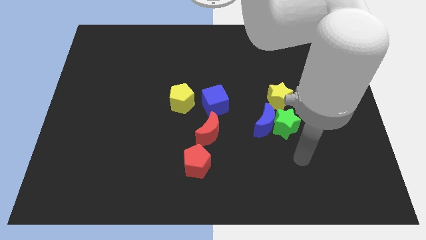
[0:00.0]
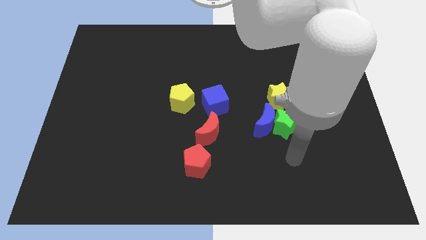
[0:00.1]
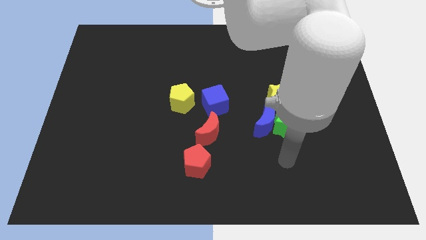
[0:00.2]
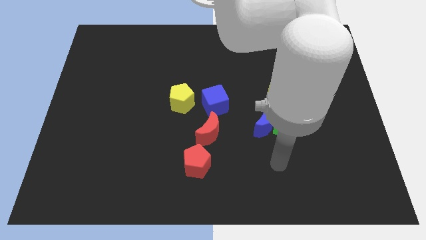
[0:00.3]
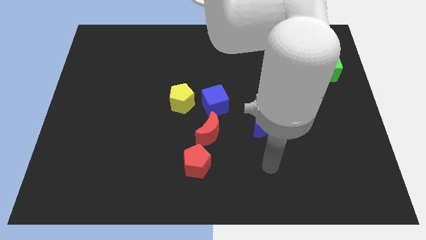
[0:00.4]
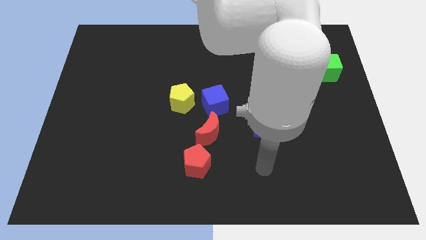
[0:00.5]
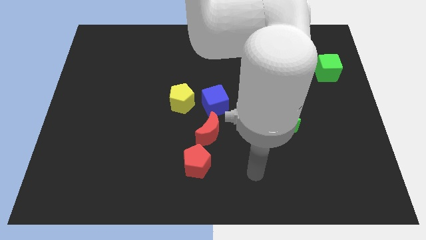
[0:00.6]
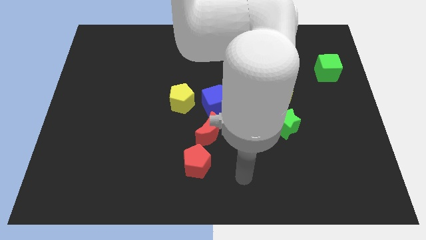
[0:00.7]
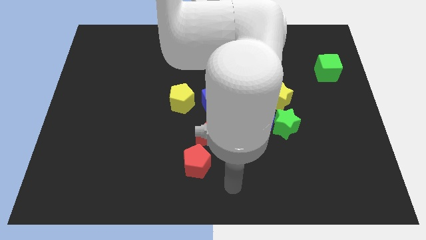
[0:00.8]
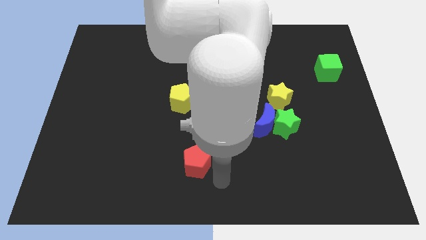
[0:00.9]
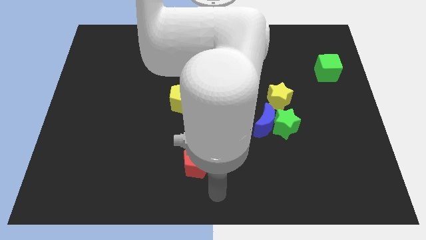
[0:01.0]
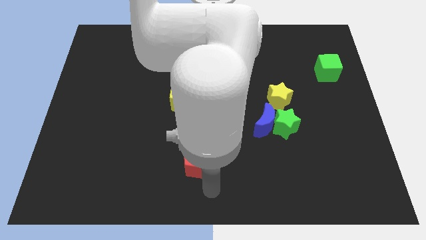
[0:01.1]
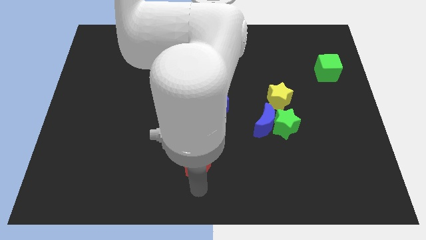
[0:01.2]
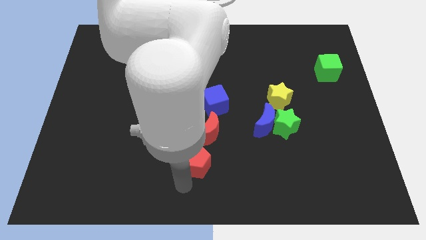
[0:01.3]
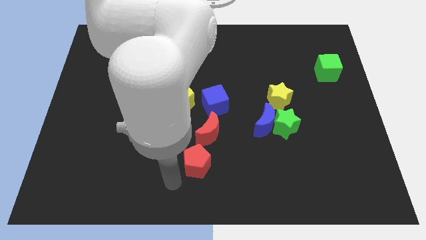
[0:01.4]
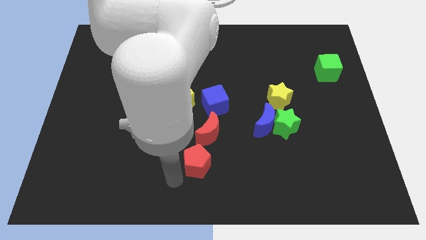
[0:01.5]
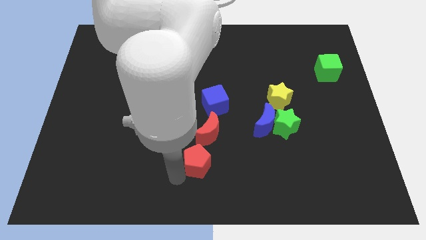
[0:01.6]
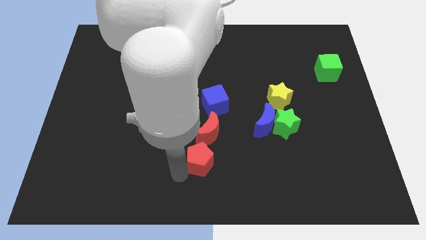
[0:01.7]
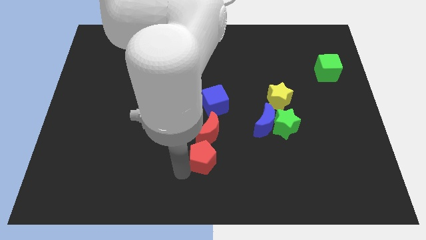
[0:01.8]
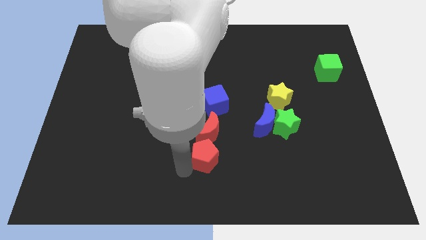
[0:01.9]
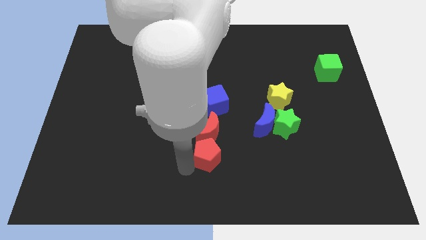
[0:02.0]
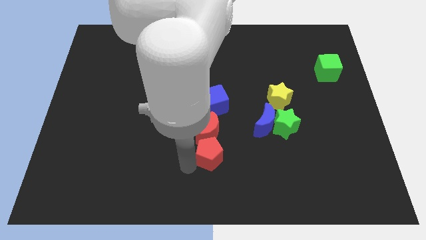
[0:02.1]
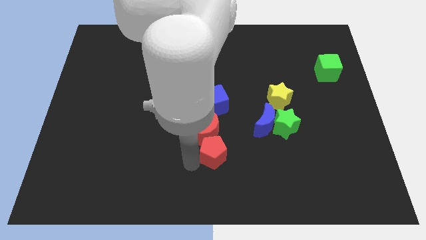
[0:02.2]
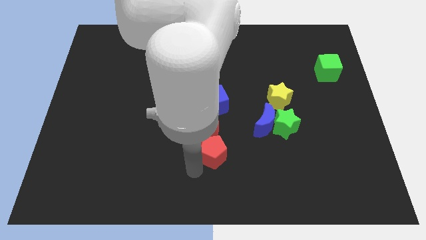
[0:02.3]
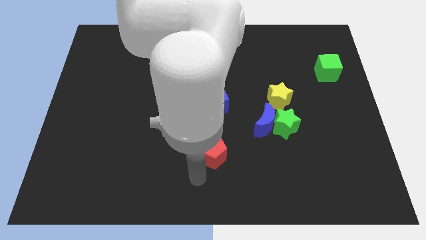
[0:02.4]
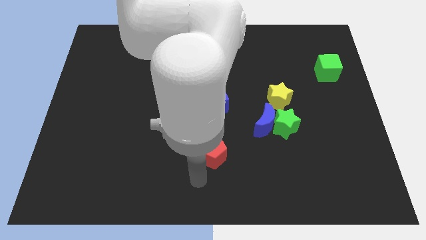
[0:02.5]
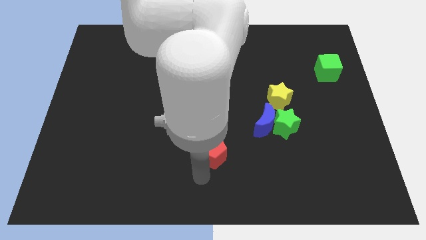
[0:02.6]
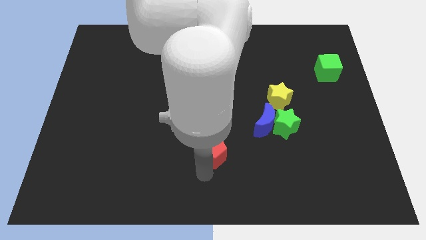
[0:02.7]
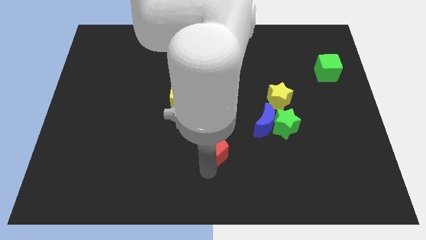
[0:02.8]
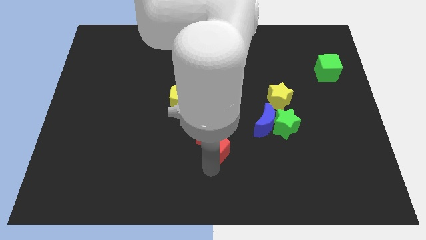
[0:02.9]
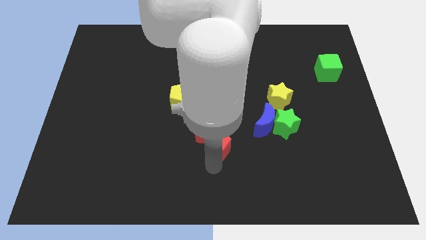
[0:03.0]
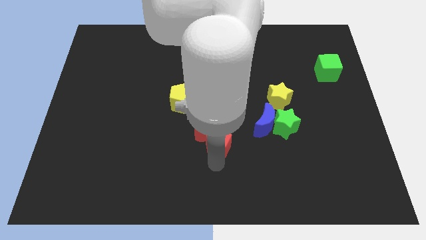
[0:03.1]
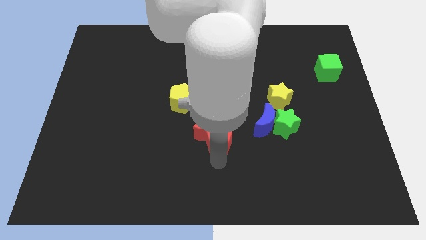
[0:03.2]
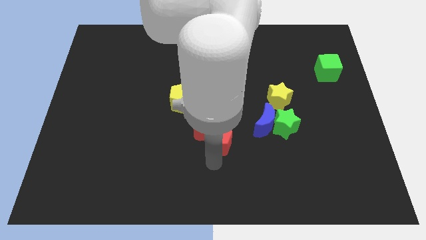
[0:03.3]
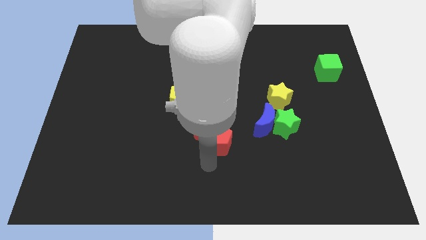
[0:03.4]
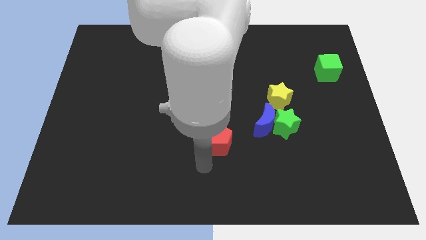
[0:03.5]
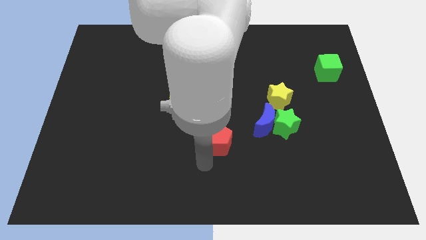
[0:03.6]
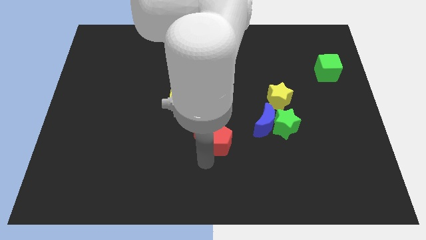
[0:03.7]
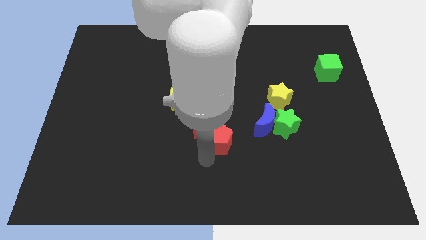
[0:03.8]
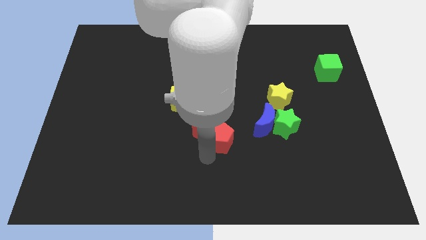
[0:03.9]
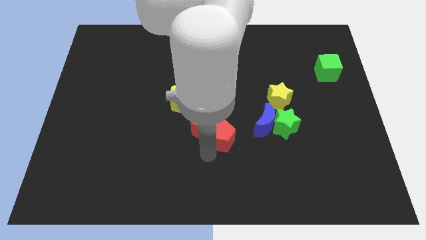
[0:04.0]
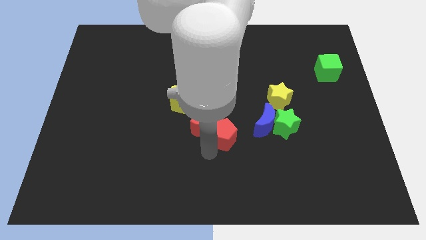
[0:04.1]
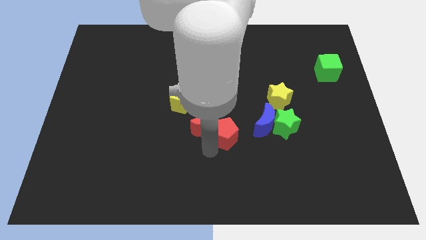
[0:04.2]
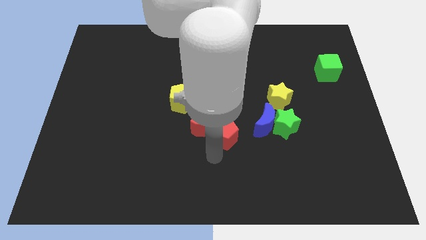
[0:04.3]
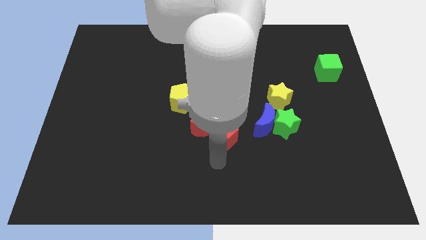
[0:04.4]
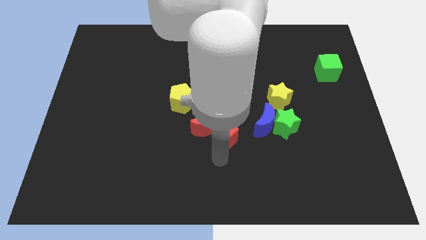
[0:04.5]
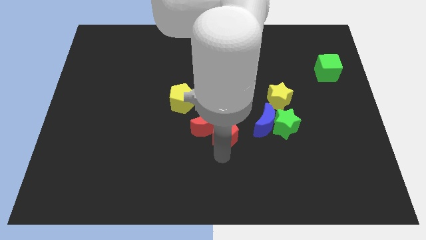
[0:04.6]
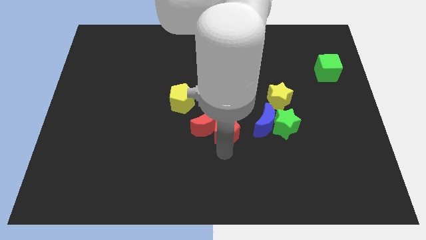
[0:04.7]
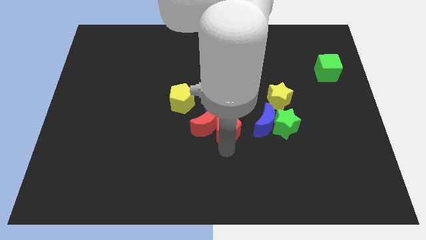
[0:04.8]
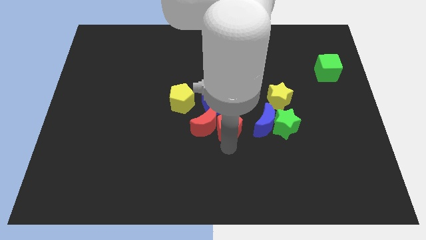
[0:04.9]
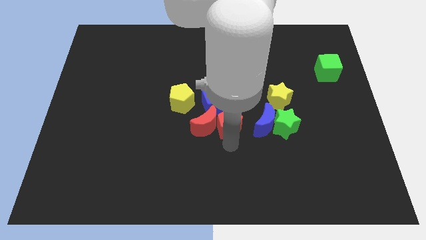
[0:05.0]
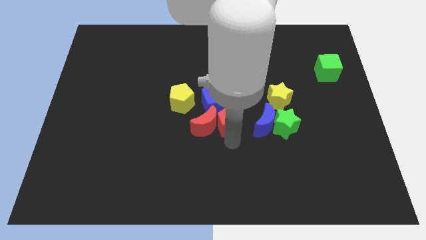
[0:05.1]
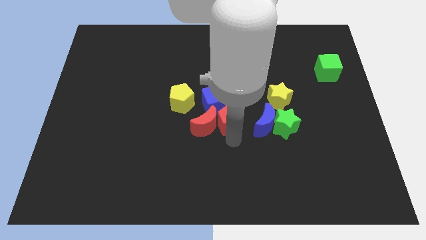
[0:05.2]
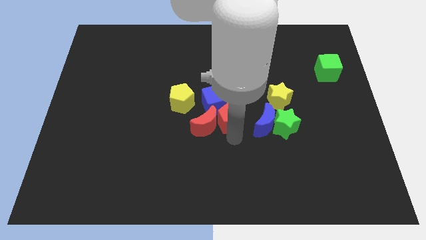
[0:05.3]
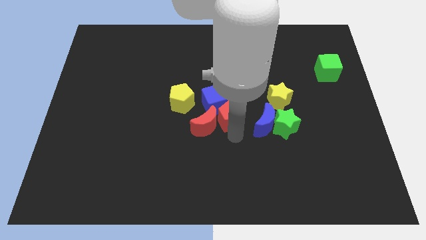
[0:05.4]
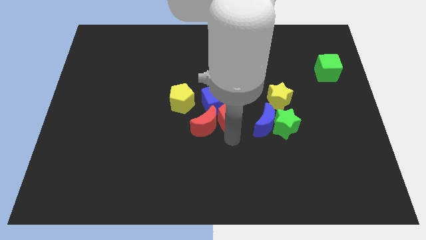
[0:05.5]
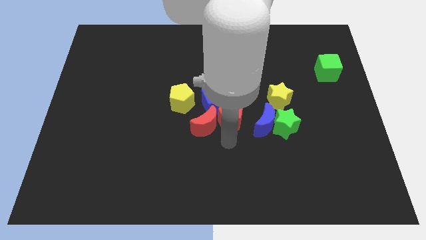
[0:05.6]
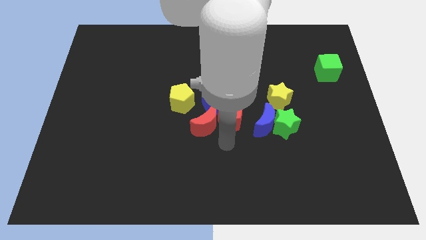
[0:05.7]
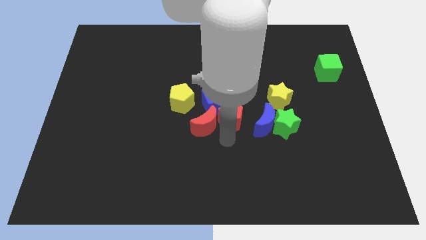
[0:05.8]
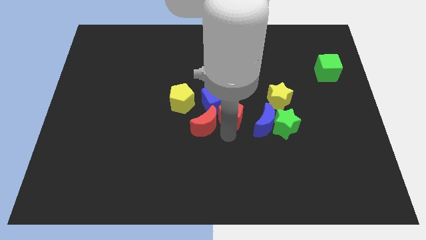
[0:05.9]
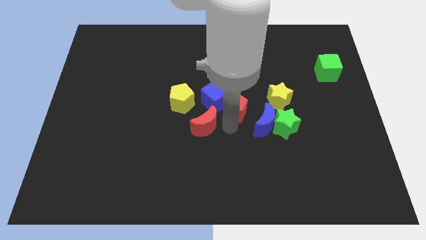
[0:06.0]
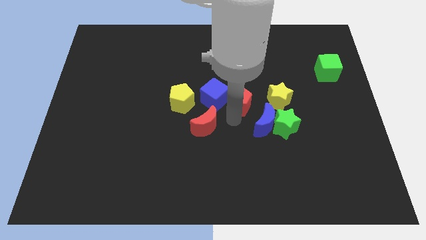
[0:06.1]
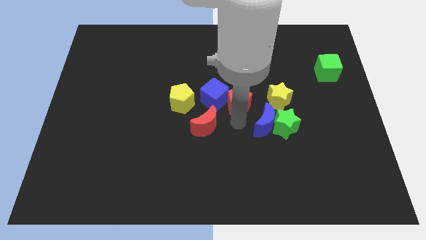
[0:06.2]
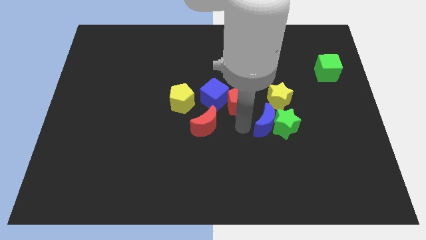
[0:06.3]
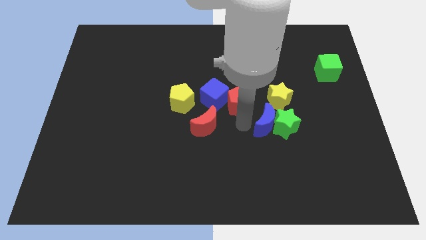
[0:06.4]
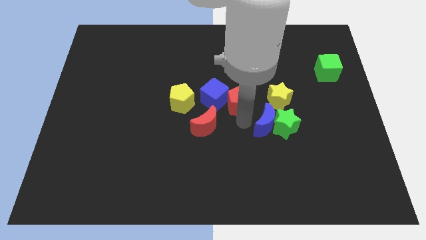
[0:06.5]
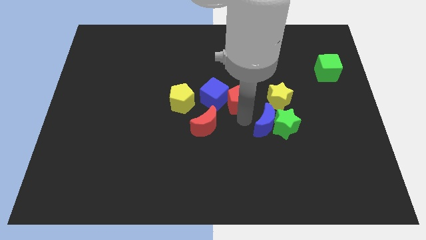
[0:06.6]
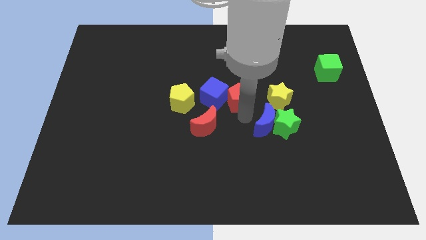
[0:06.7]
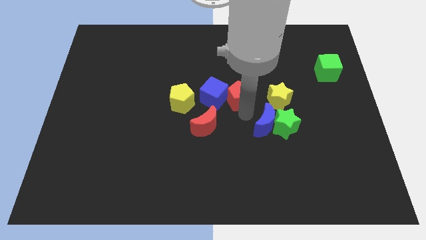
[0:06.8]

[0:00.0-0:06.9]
push the red pentagon to the top right of the blue cube

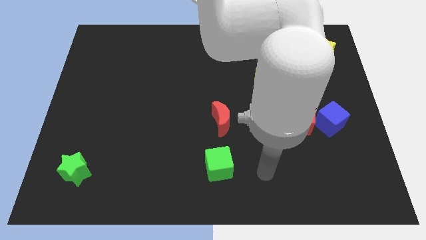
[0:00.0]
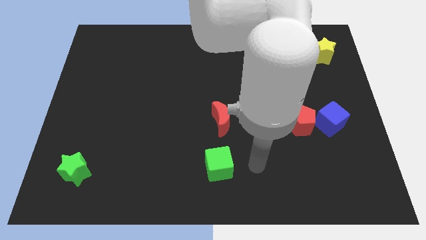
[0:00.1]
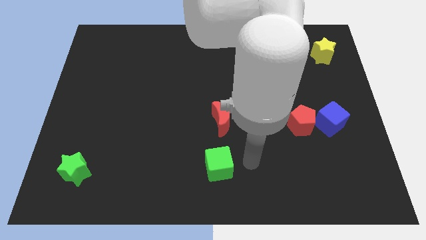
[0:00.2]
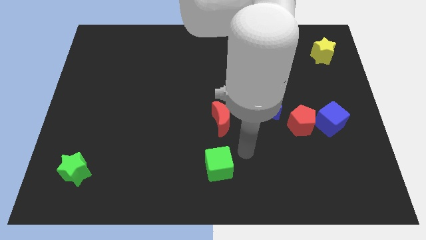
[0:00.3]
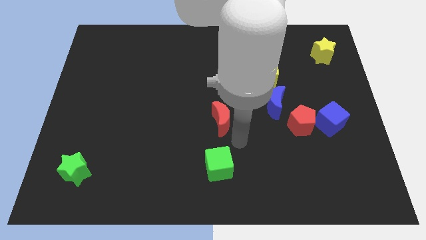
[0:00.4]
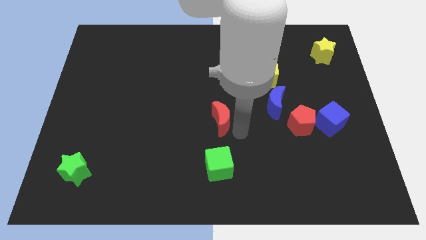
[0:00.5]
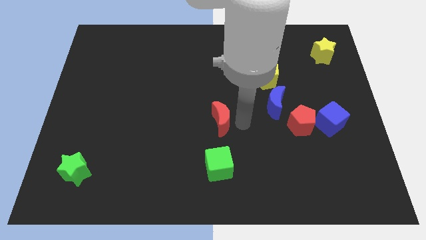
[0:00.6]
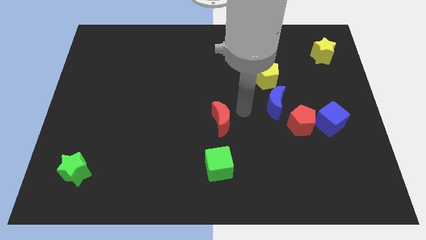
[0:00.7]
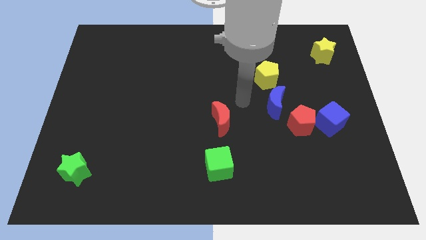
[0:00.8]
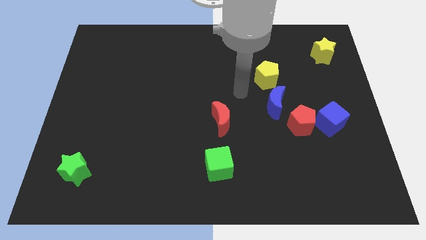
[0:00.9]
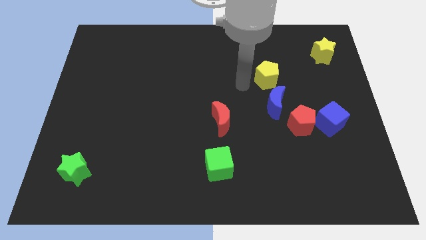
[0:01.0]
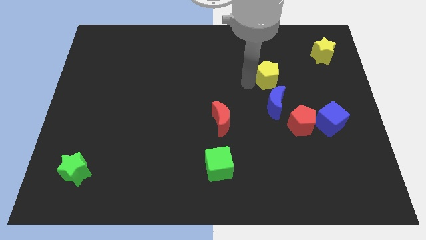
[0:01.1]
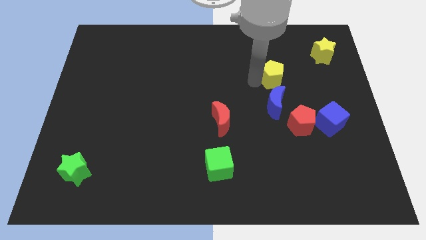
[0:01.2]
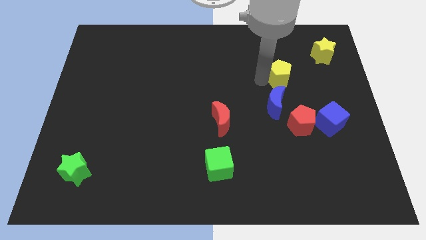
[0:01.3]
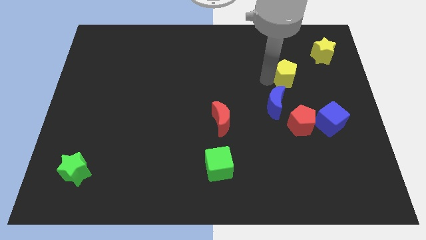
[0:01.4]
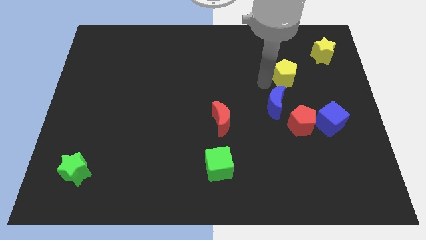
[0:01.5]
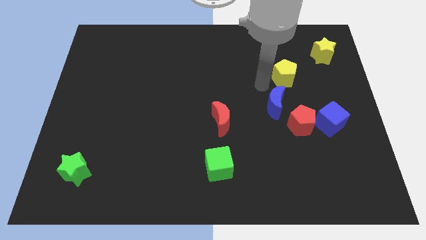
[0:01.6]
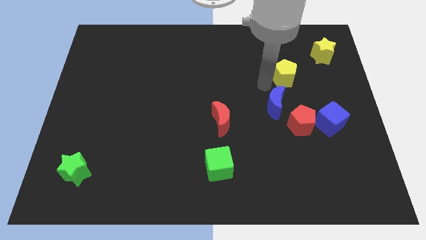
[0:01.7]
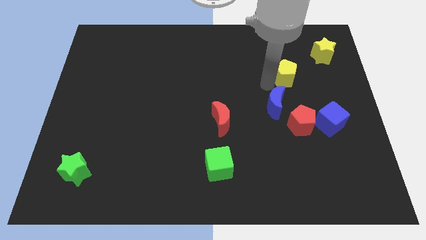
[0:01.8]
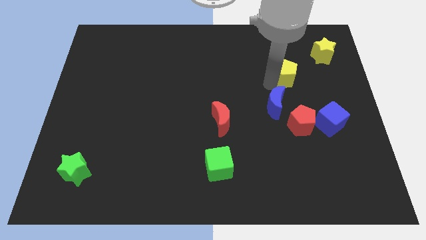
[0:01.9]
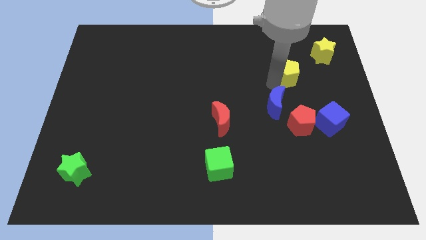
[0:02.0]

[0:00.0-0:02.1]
move the yellow pentagon to the bottom left of the yellow star
